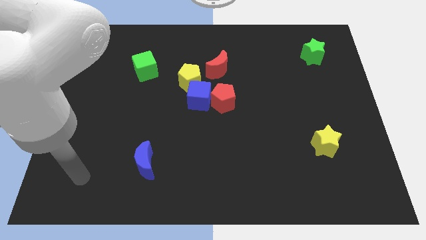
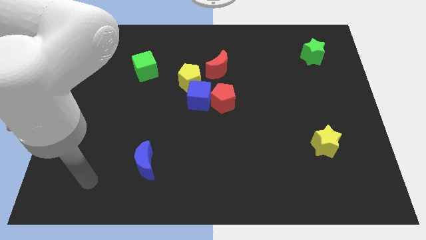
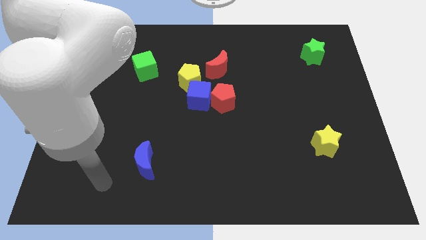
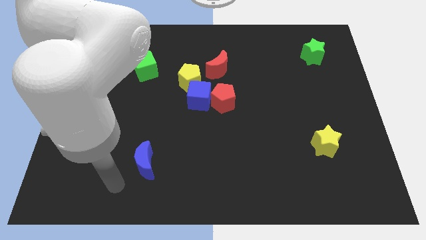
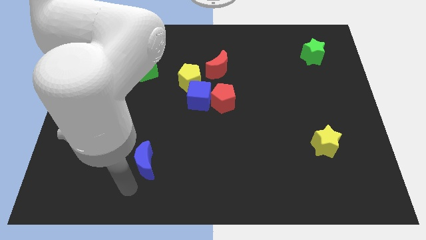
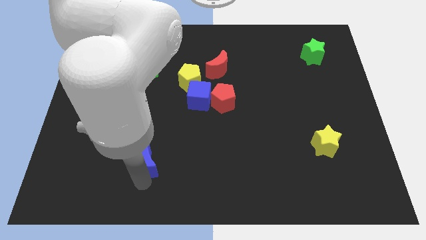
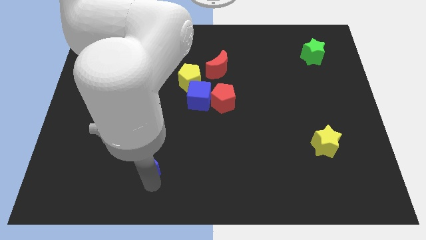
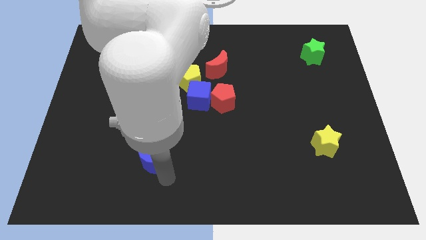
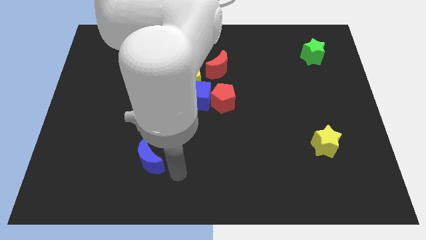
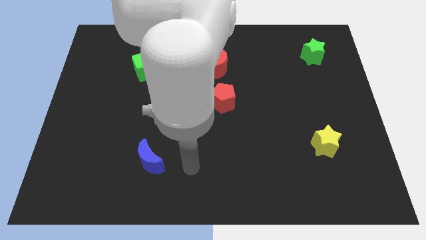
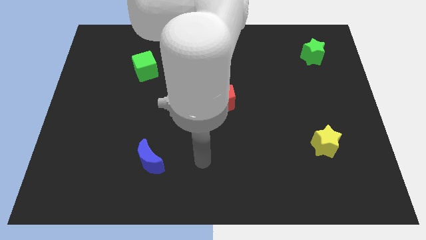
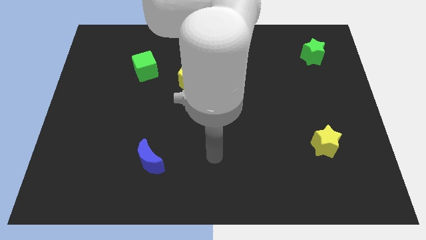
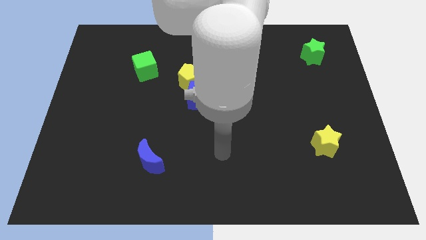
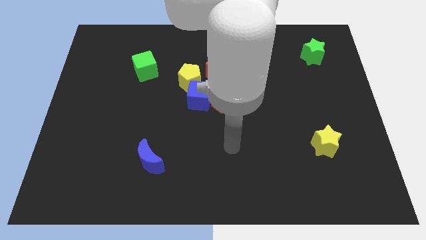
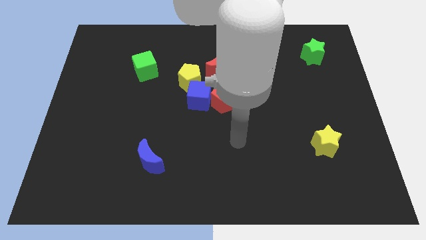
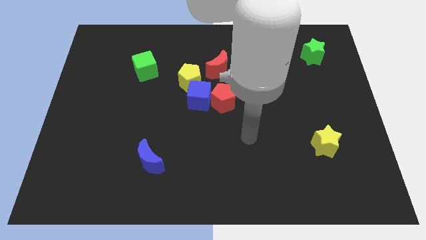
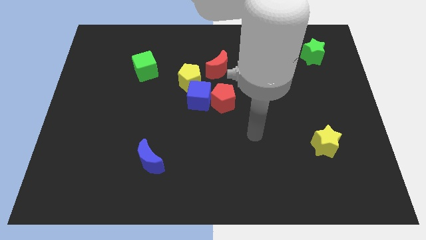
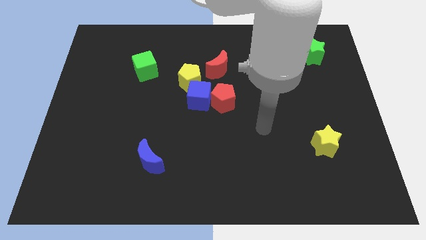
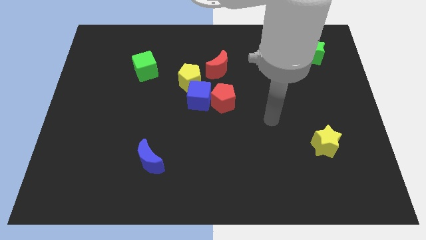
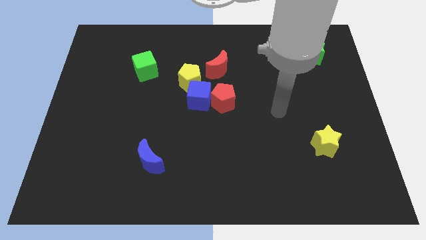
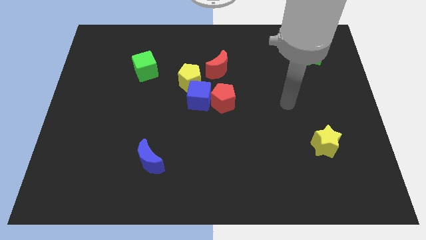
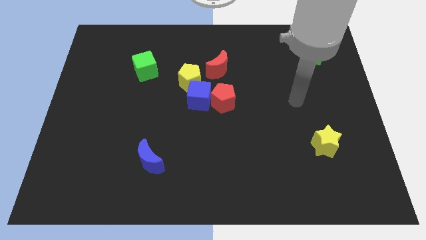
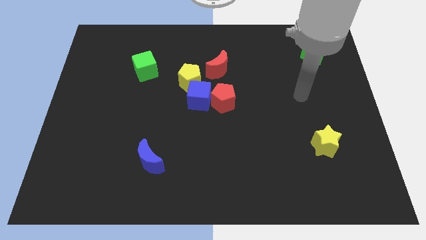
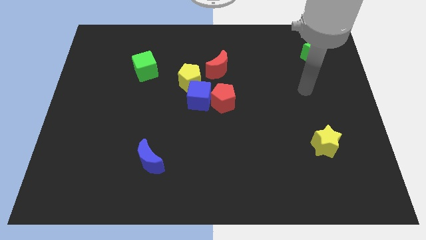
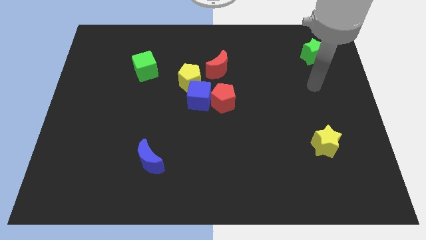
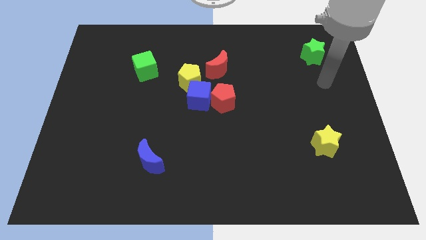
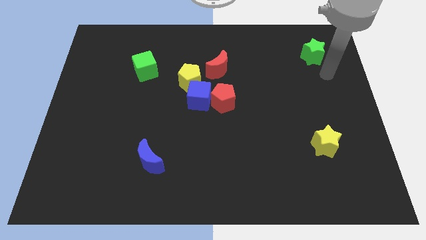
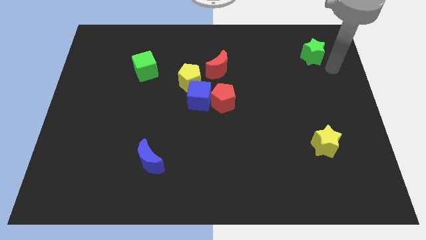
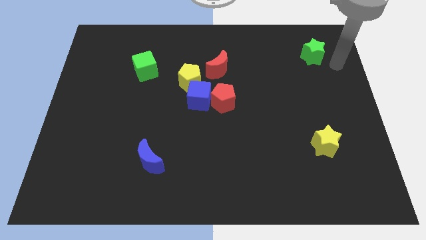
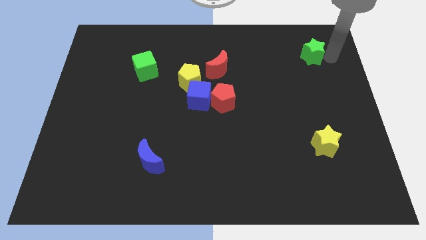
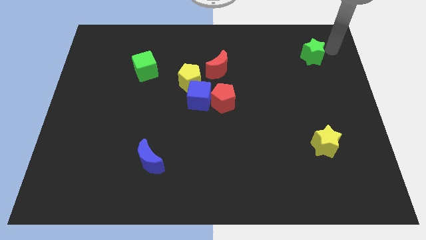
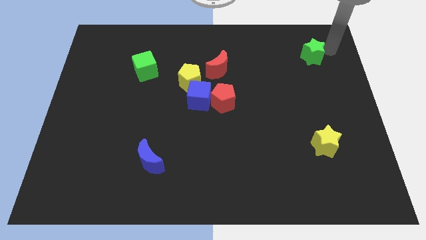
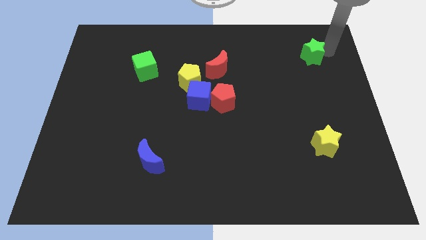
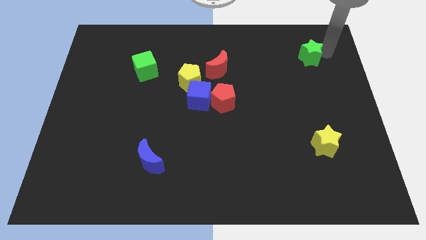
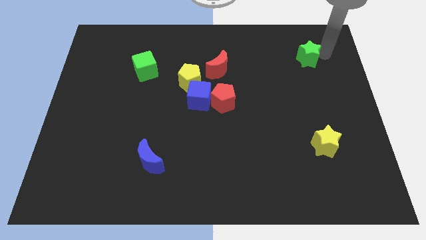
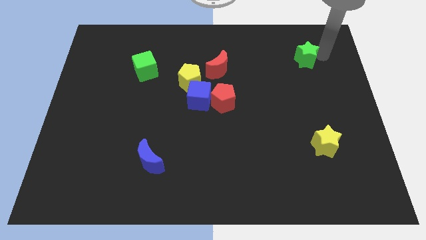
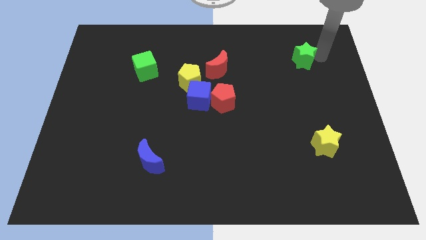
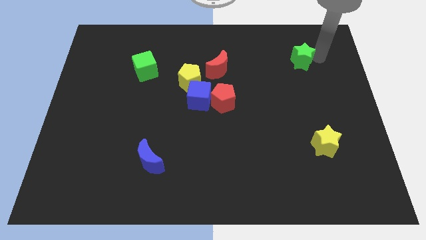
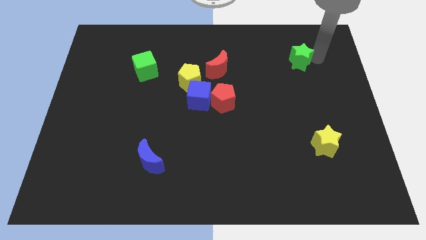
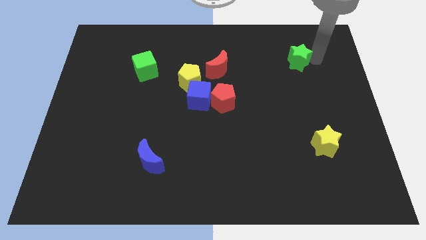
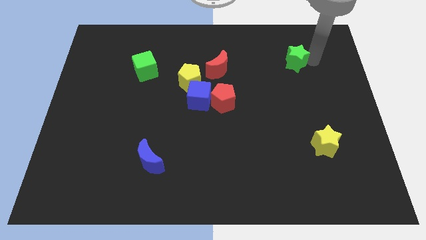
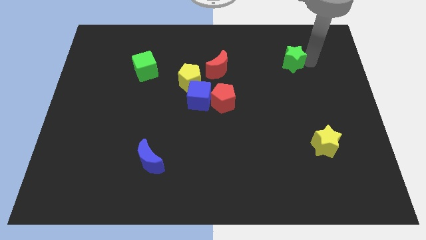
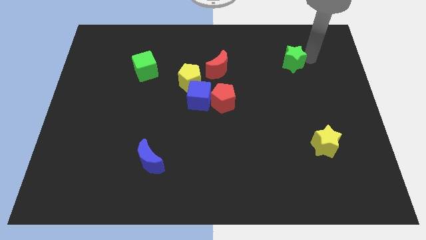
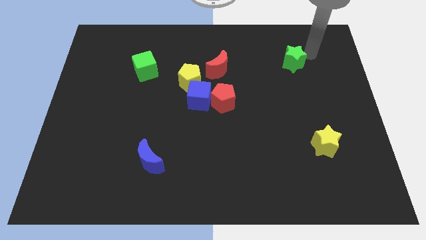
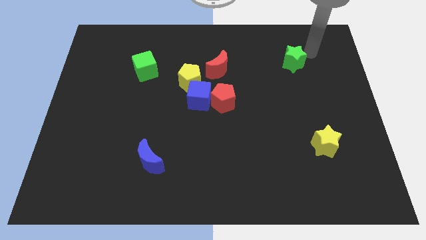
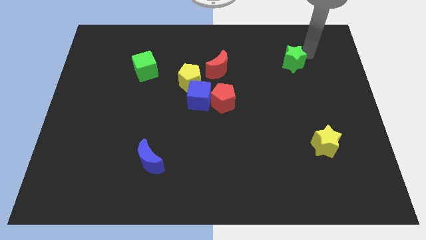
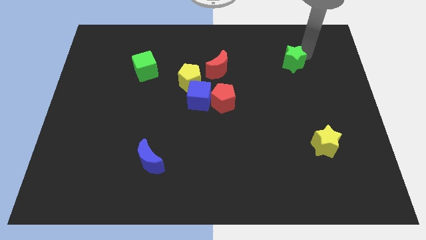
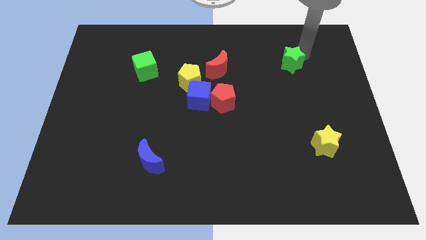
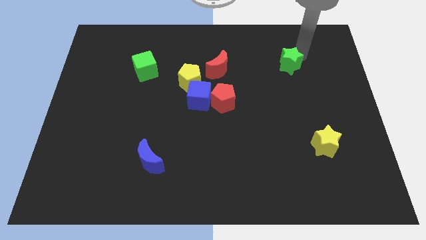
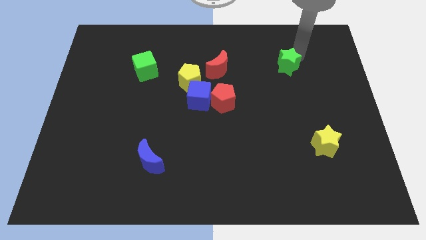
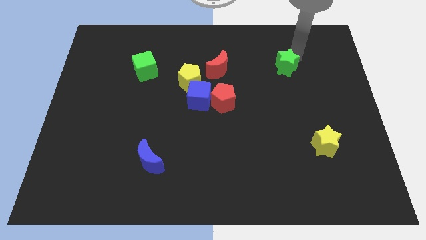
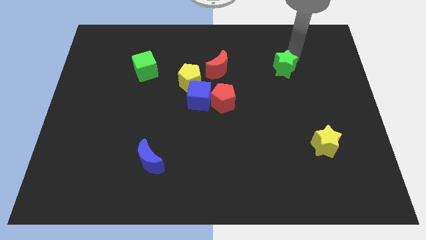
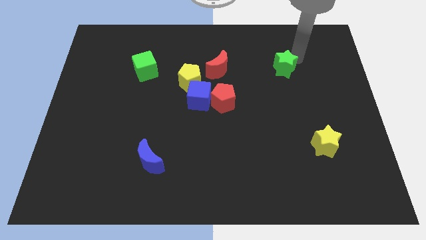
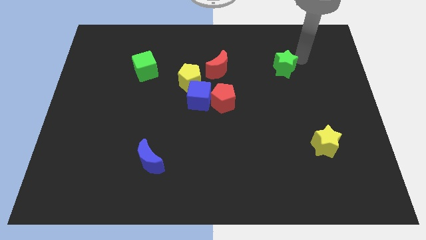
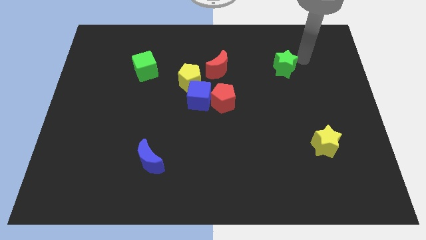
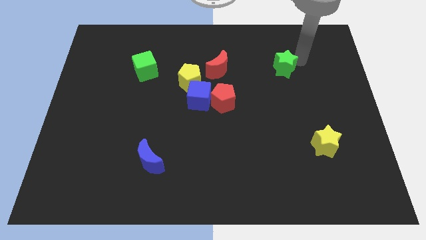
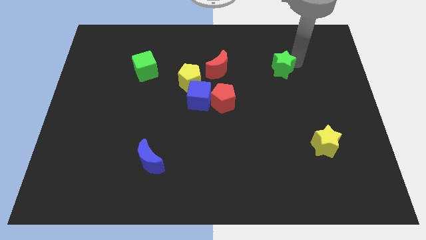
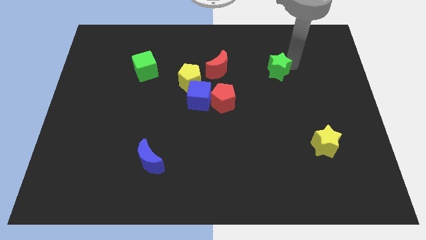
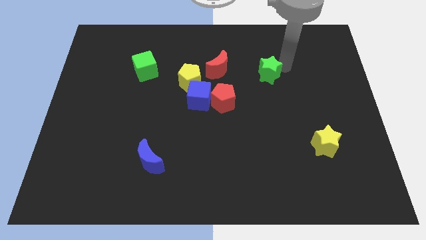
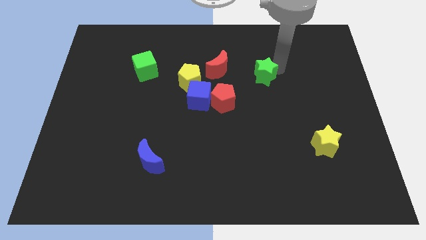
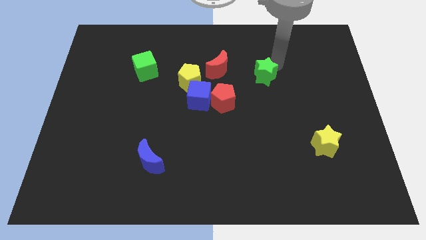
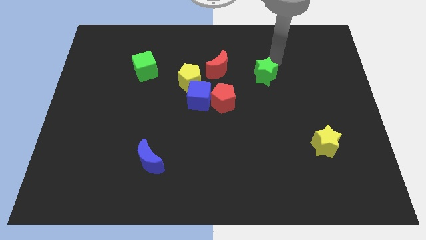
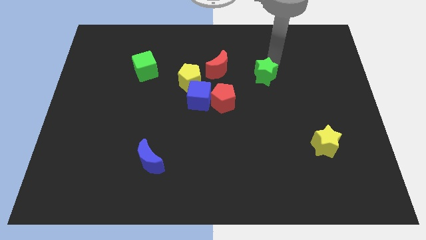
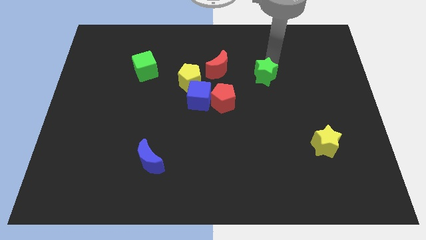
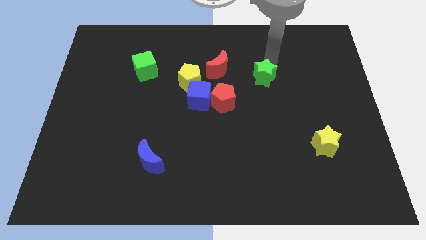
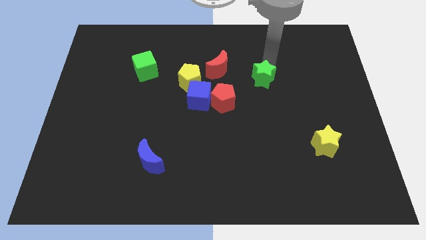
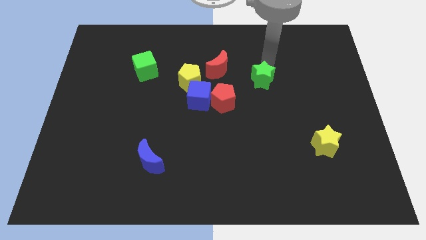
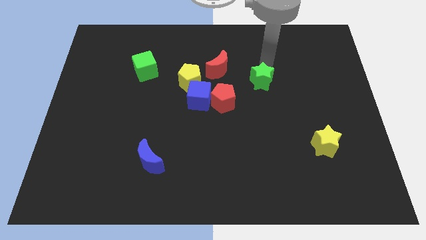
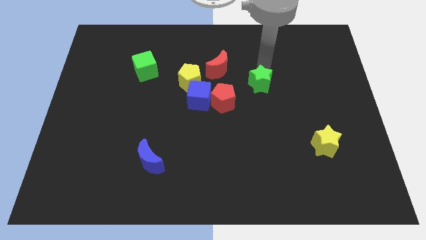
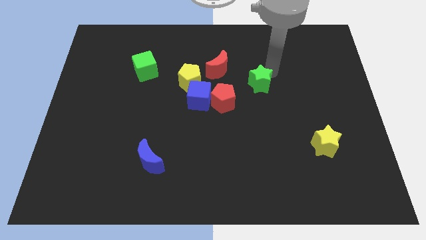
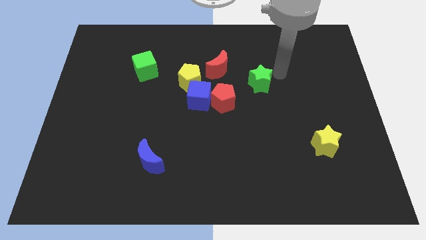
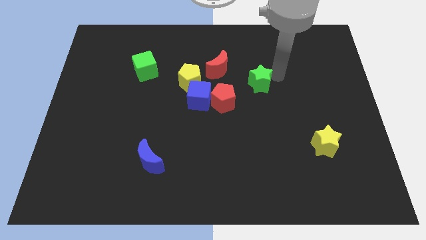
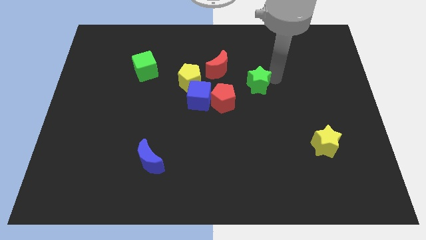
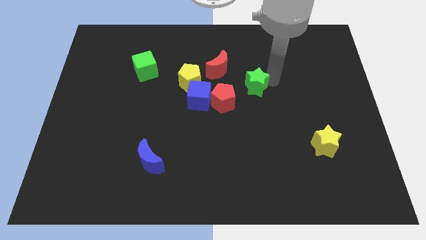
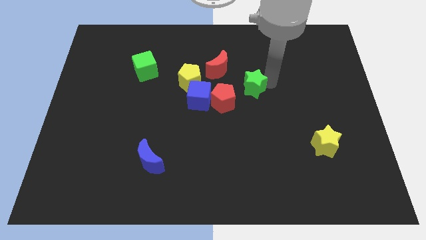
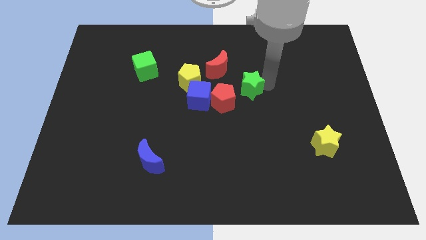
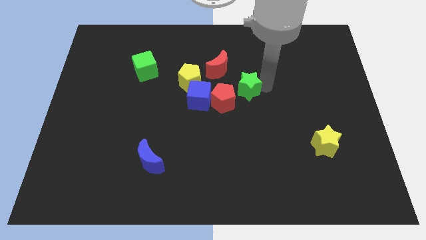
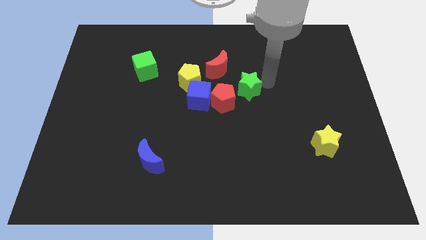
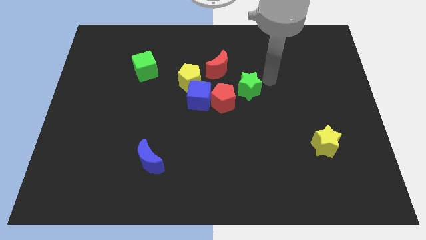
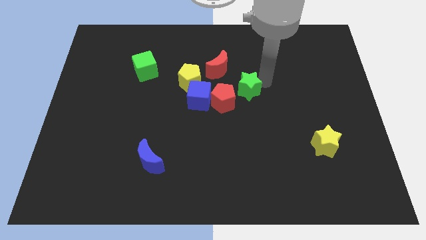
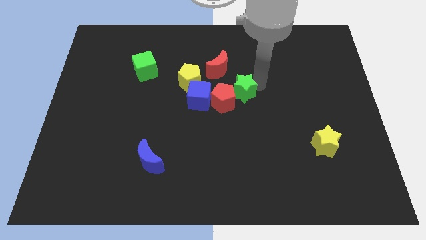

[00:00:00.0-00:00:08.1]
push the green star close to the red pentagon

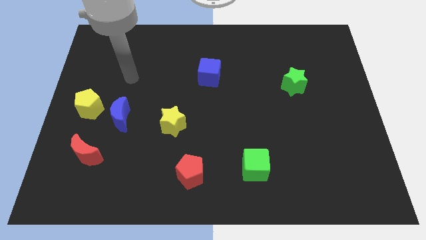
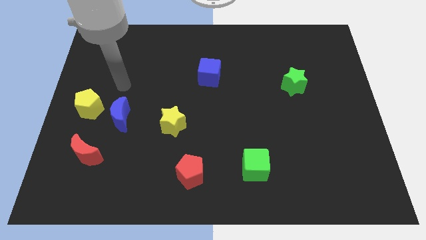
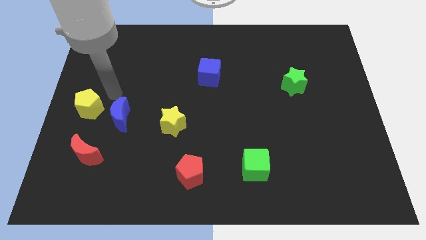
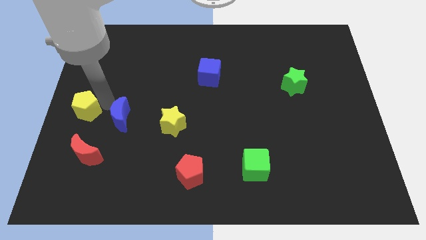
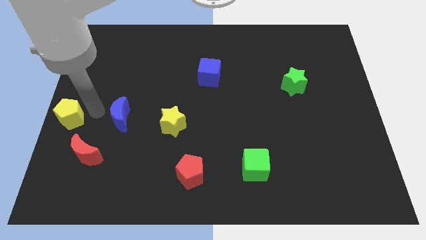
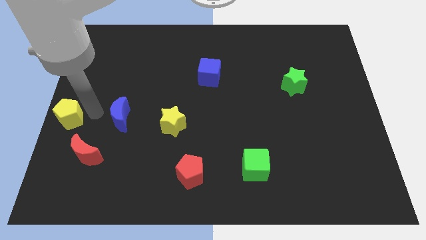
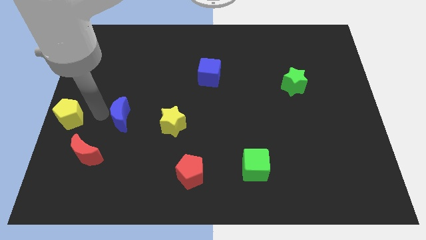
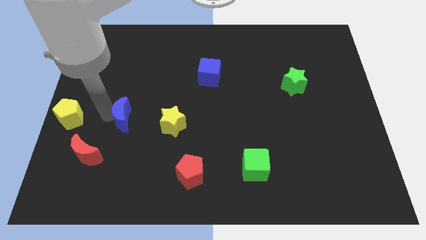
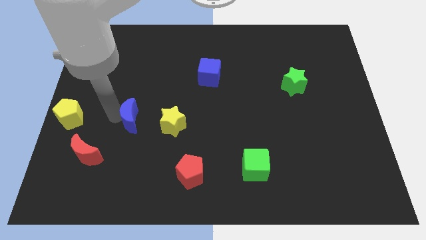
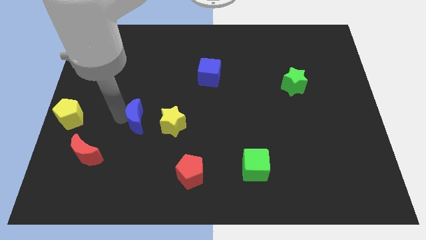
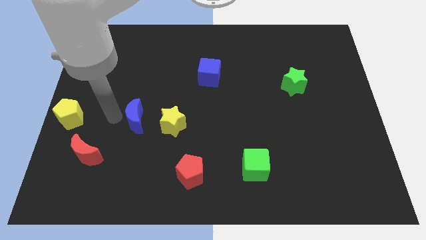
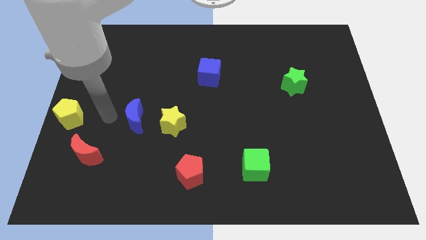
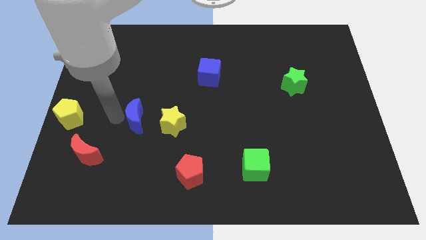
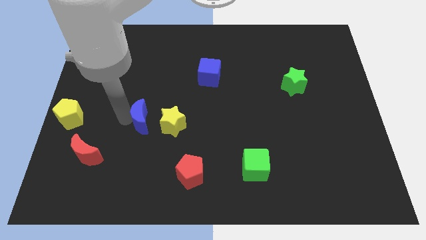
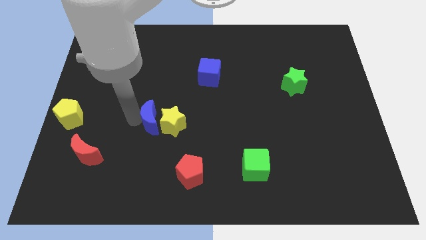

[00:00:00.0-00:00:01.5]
move the blue moon towards the yellow star
